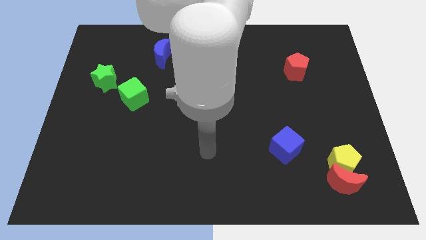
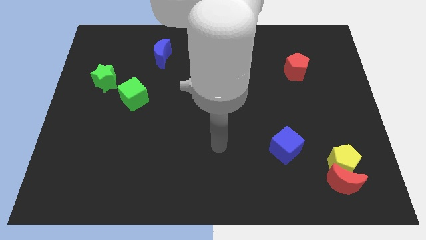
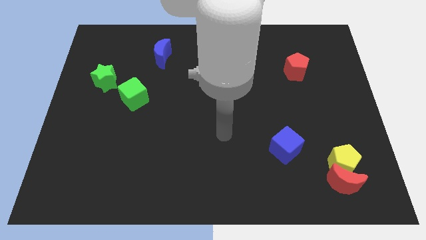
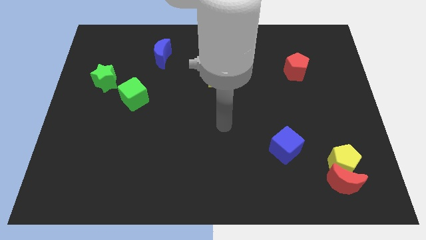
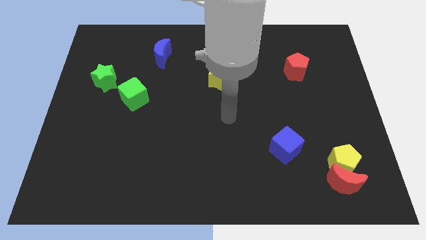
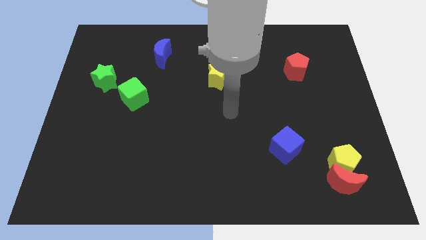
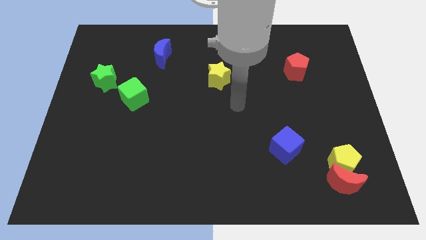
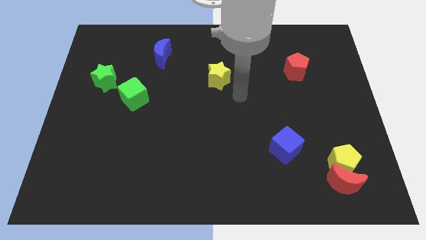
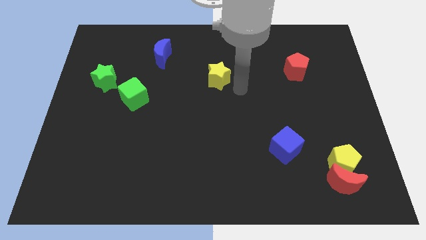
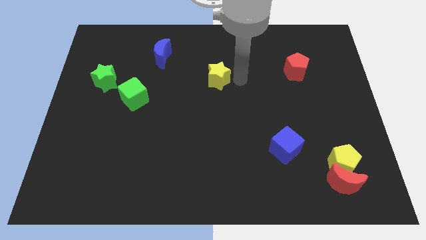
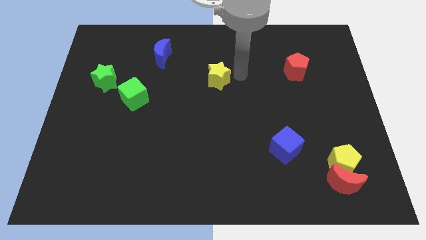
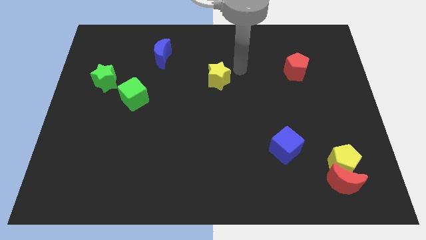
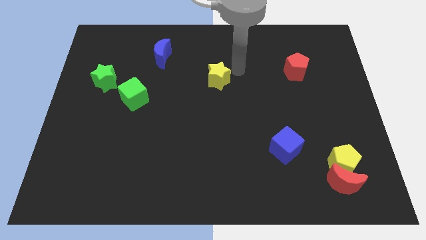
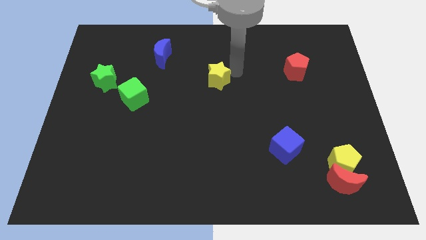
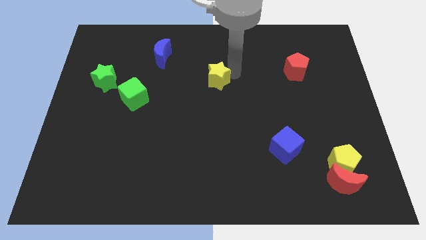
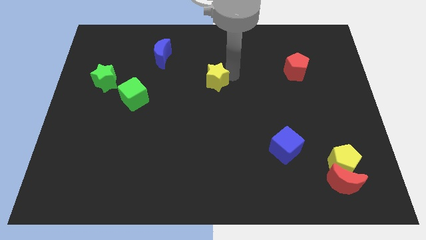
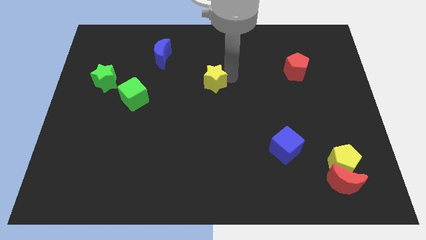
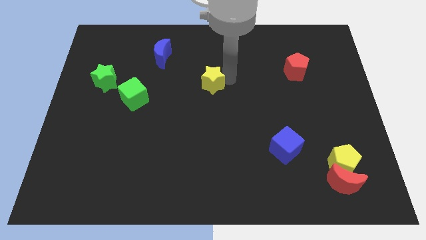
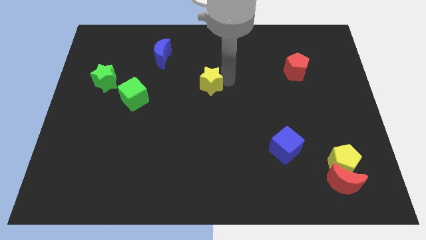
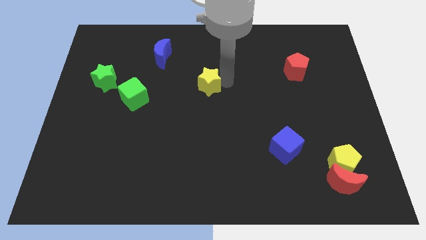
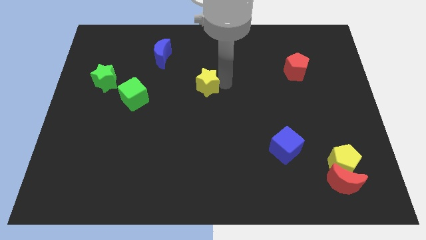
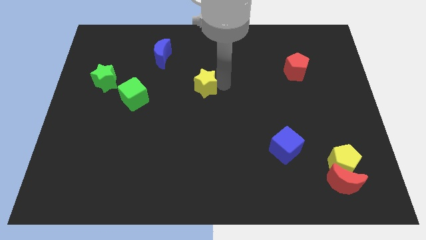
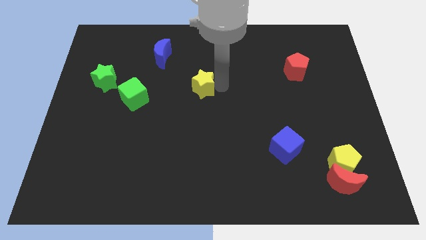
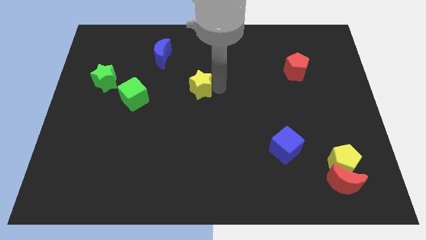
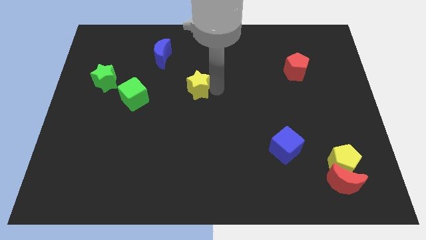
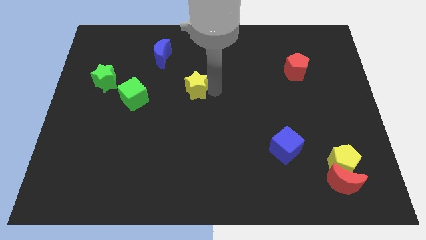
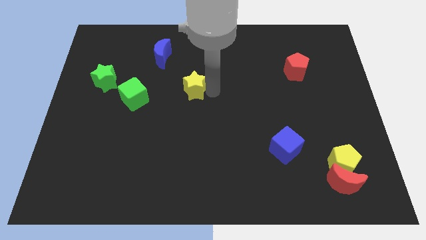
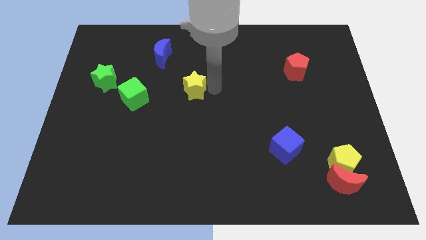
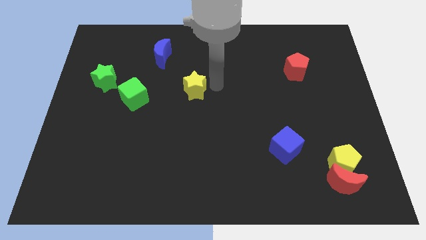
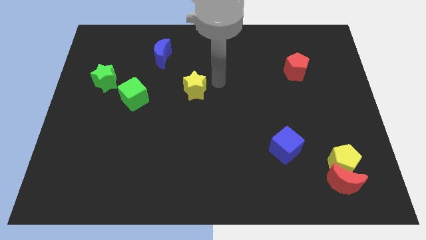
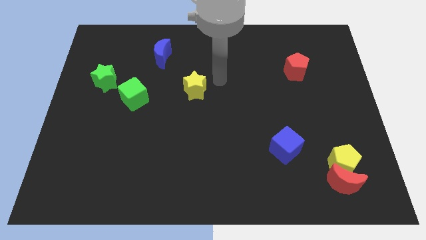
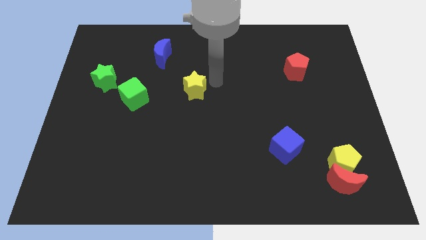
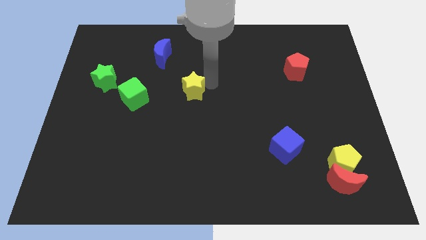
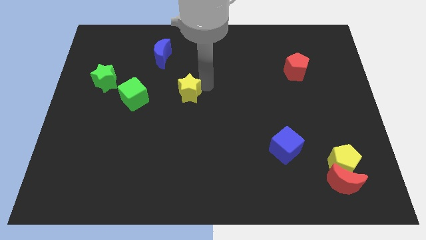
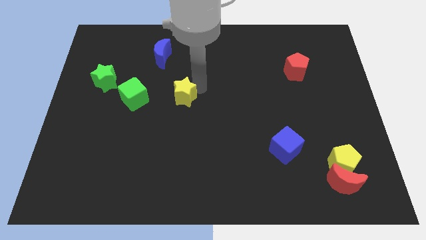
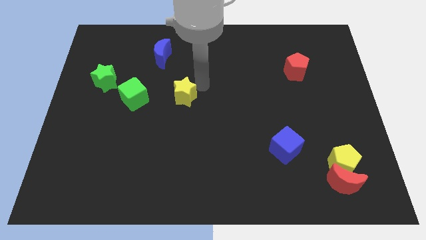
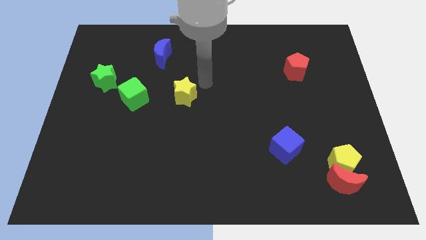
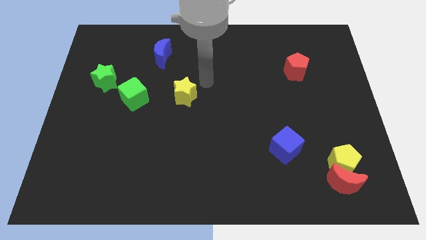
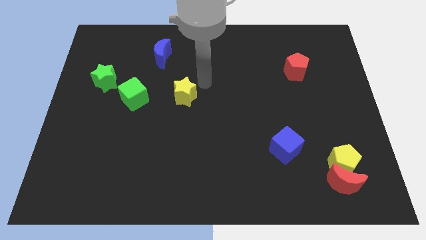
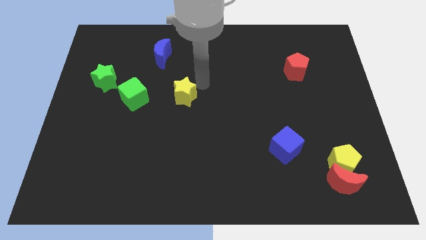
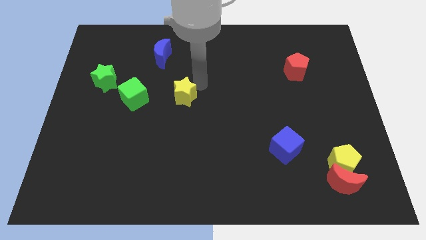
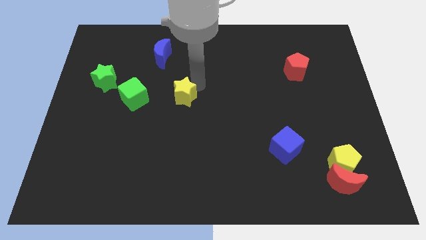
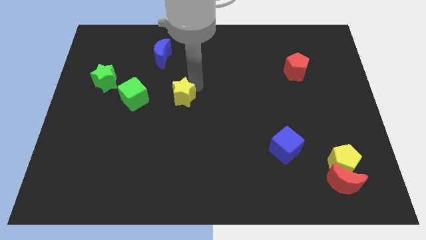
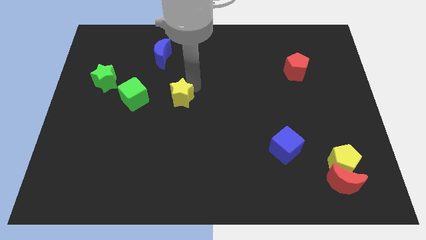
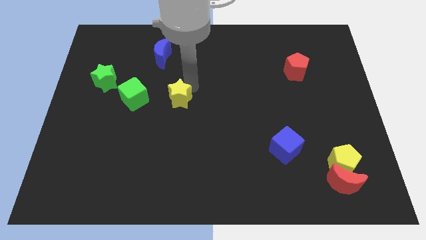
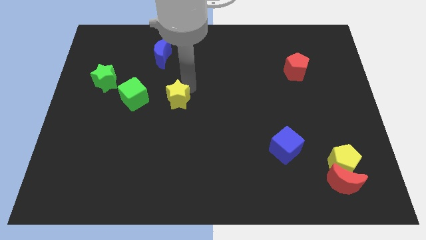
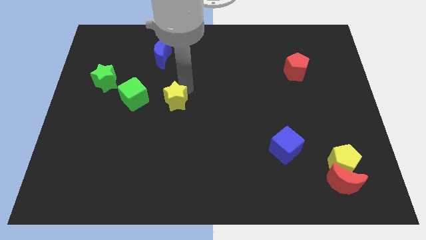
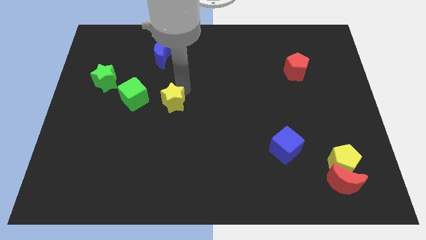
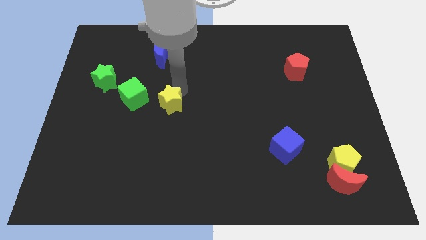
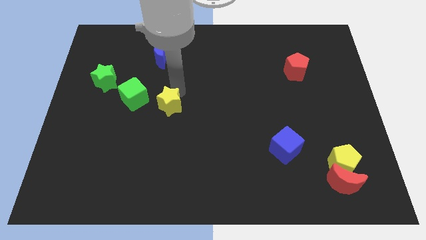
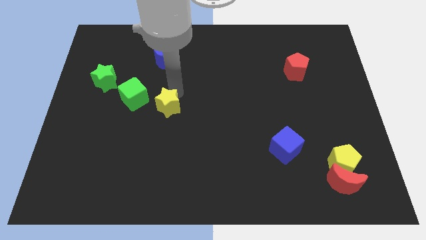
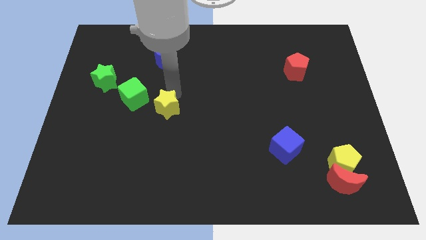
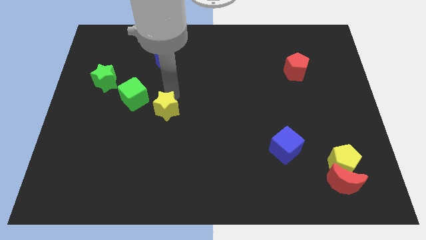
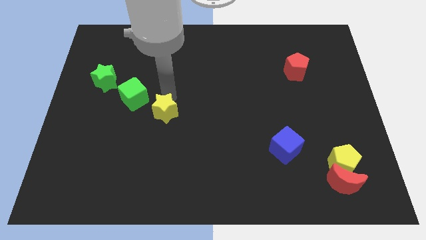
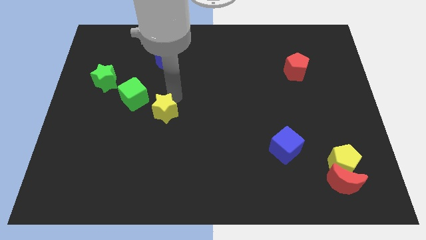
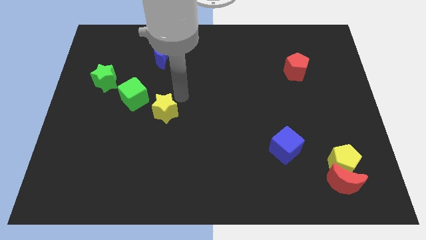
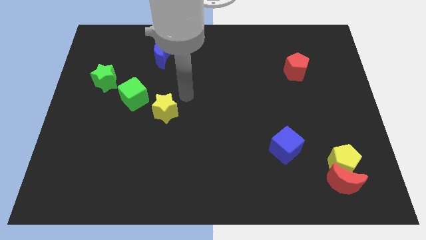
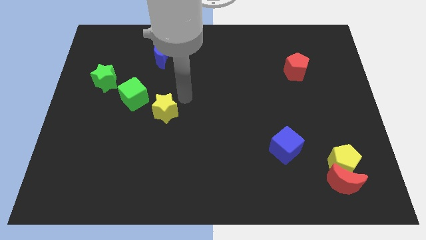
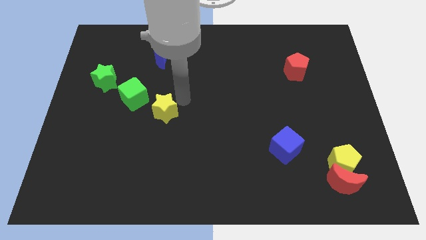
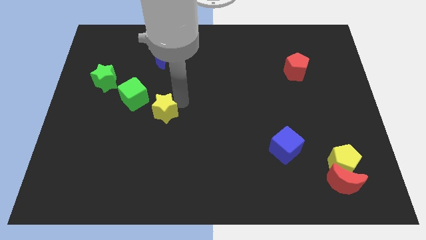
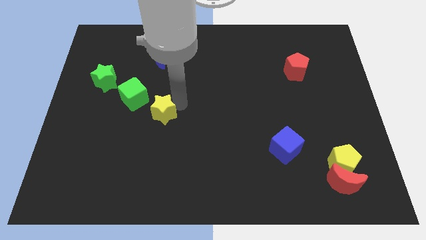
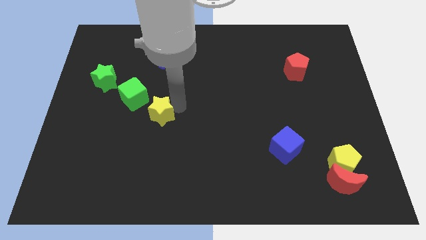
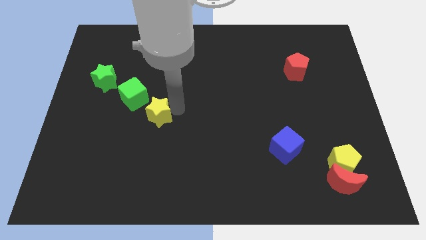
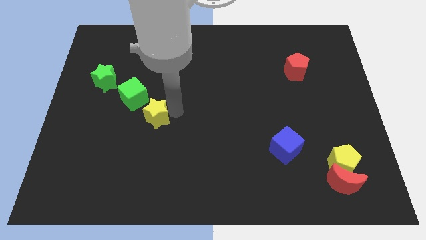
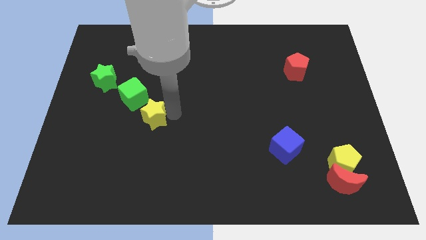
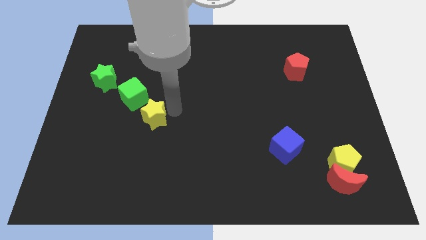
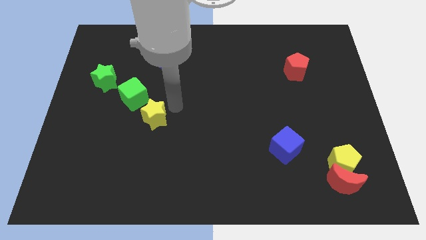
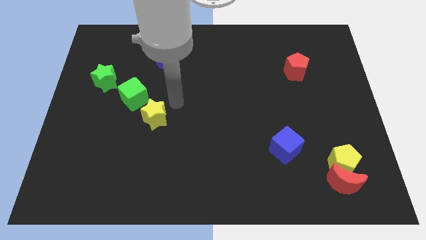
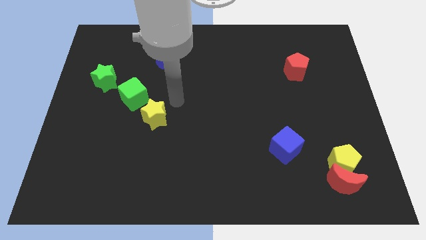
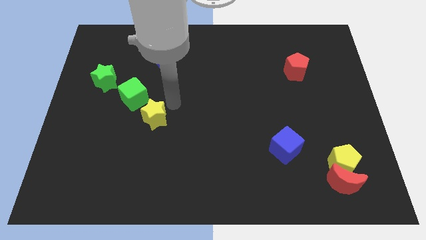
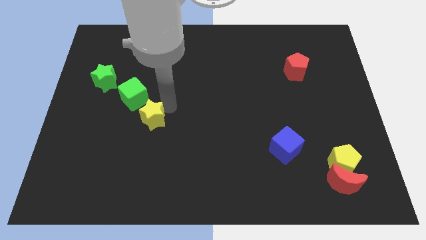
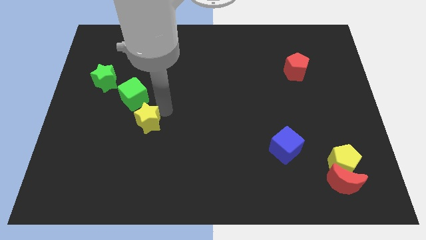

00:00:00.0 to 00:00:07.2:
slide the yellow star down and left diagonally

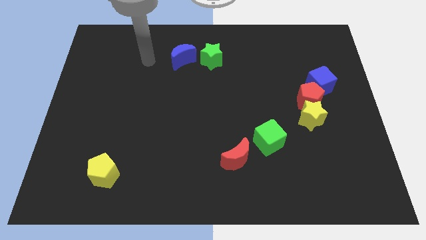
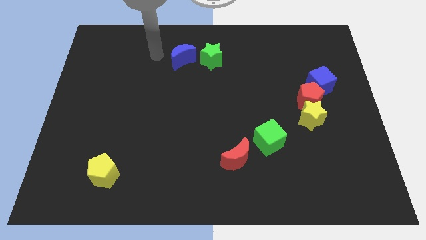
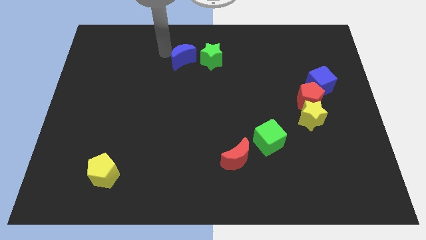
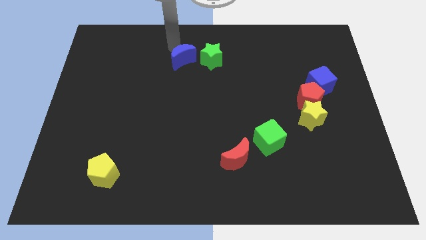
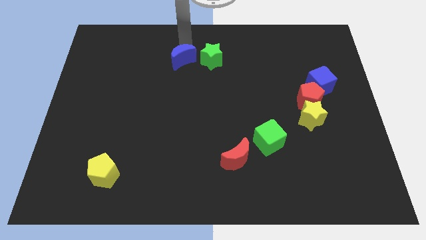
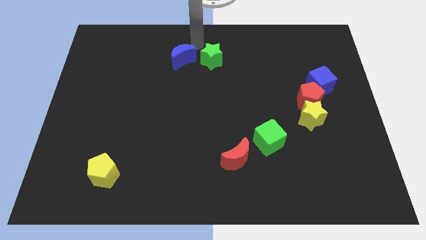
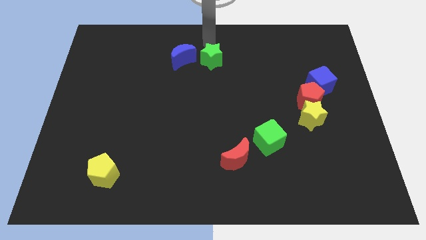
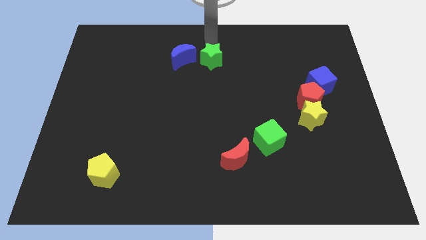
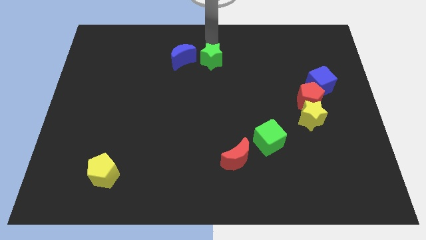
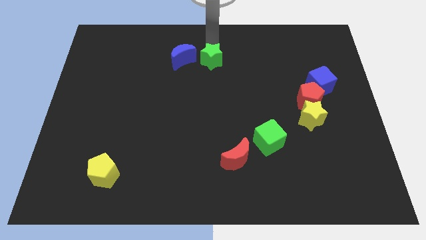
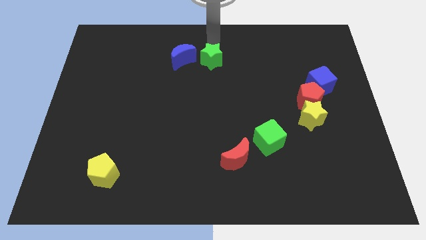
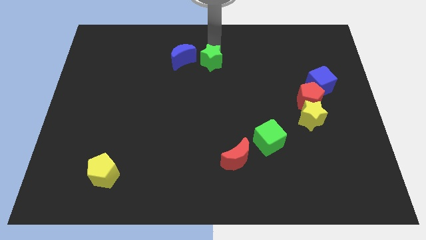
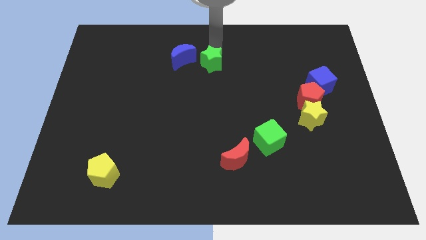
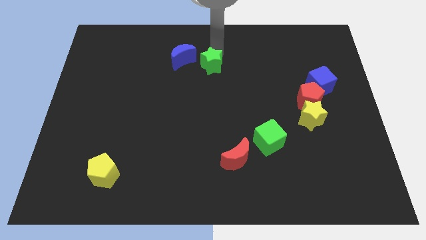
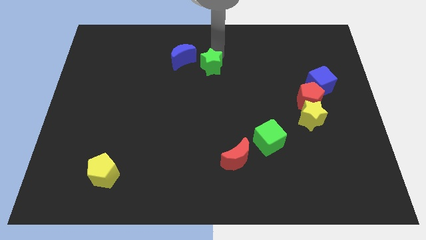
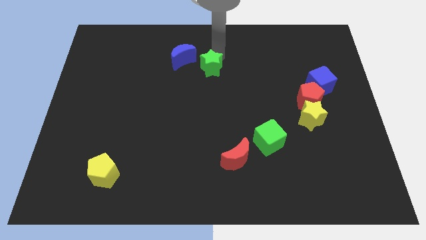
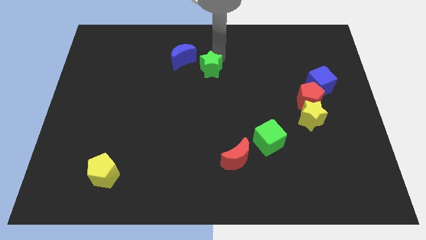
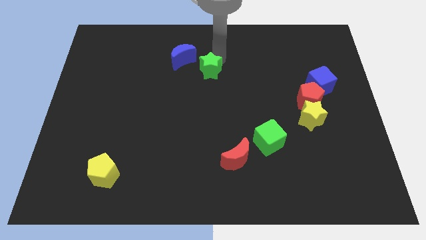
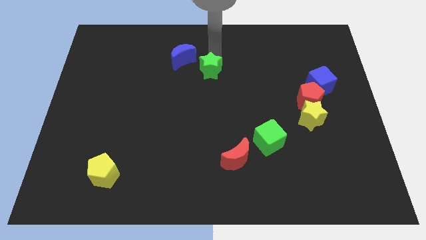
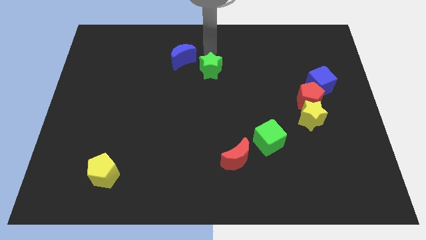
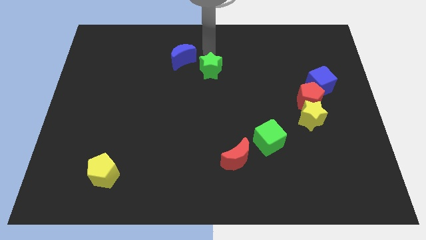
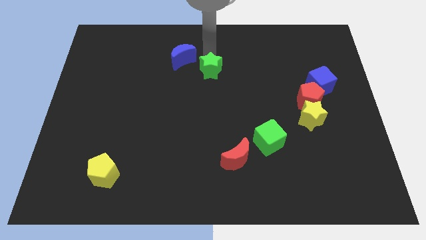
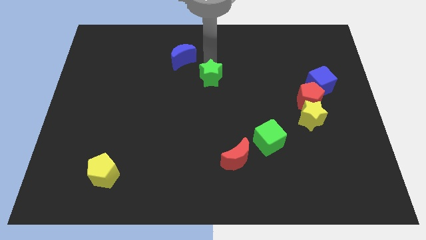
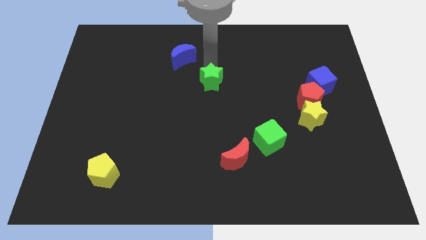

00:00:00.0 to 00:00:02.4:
slightly slide the green star down
